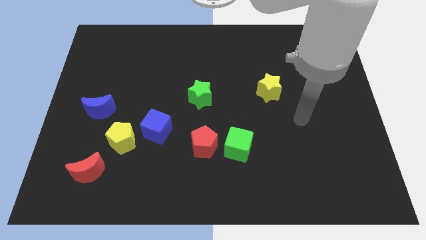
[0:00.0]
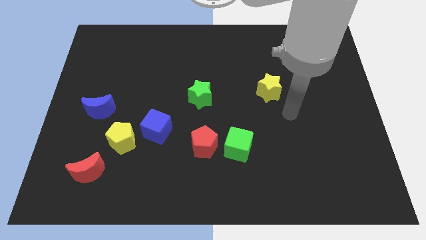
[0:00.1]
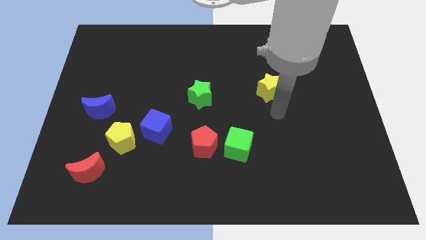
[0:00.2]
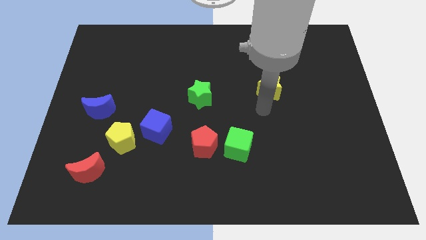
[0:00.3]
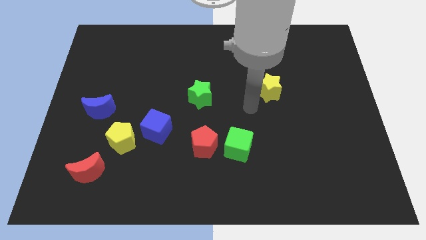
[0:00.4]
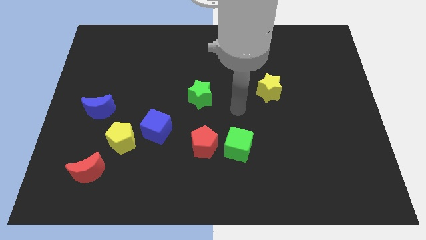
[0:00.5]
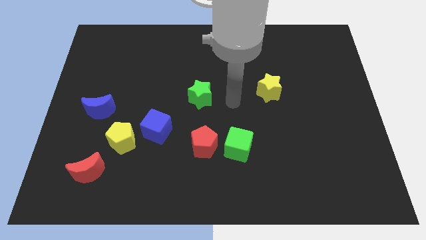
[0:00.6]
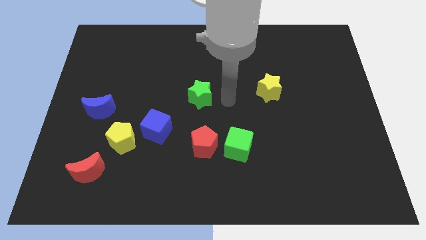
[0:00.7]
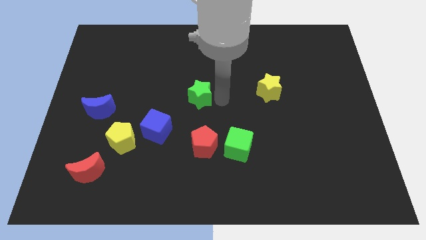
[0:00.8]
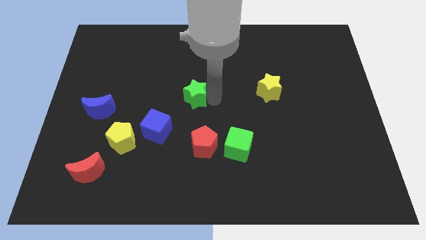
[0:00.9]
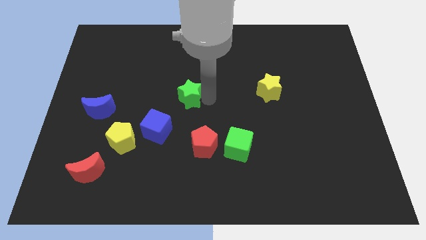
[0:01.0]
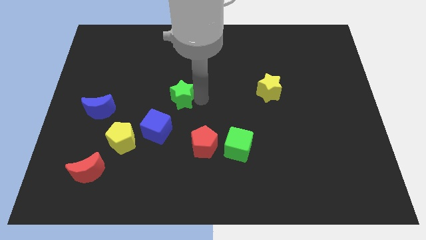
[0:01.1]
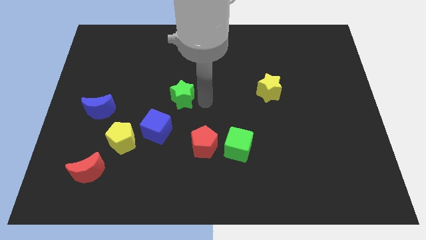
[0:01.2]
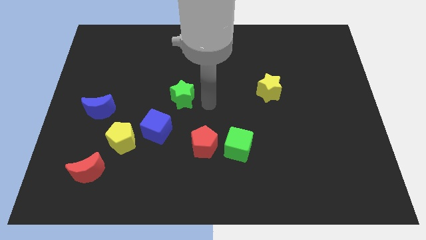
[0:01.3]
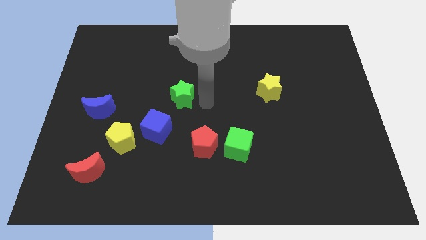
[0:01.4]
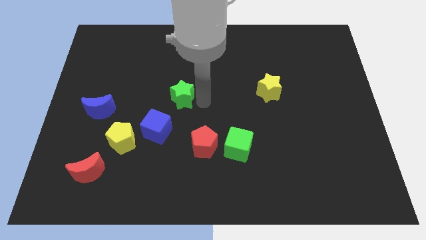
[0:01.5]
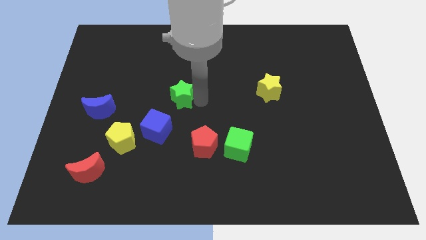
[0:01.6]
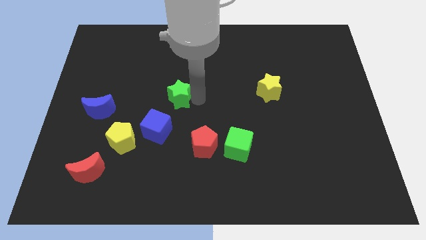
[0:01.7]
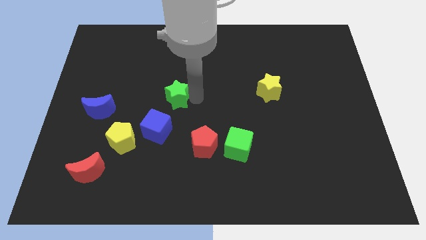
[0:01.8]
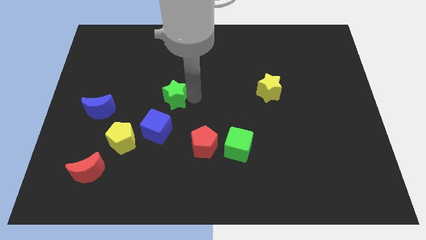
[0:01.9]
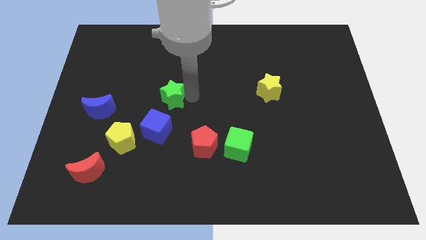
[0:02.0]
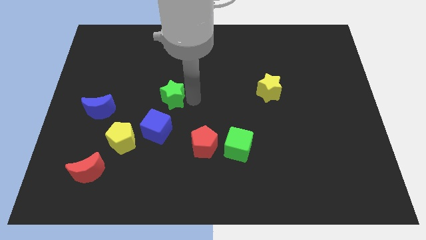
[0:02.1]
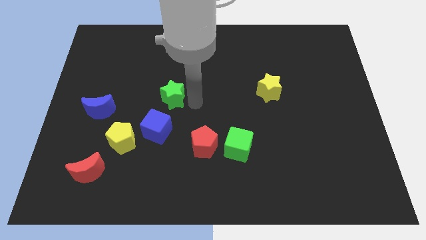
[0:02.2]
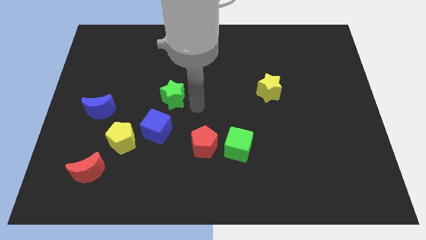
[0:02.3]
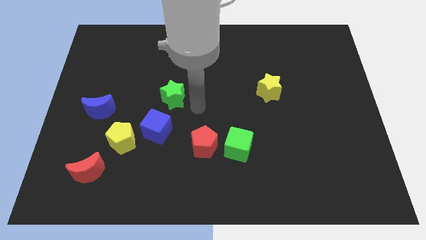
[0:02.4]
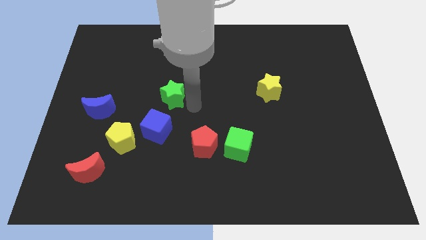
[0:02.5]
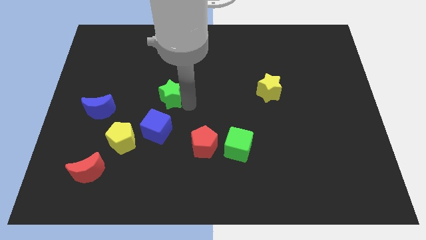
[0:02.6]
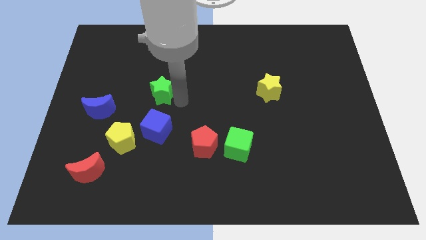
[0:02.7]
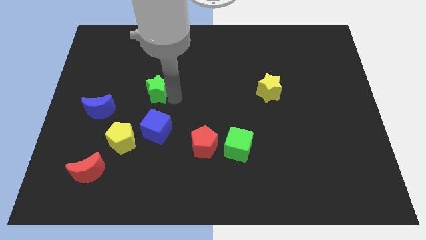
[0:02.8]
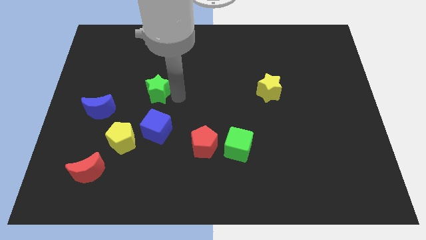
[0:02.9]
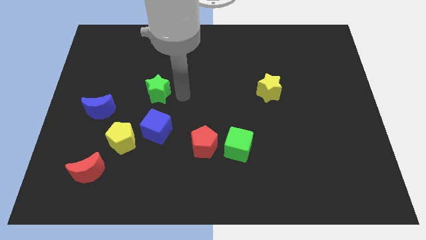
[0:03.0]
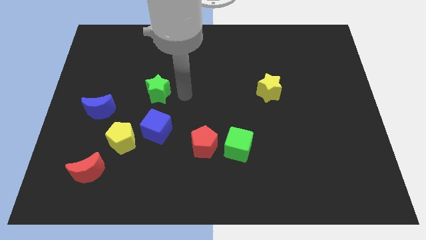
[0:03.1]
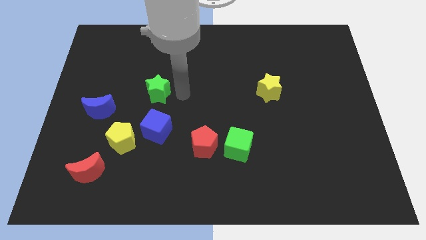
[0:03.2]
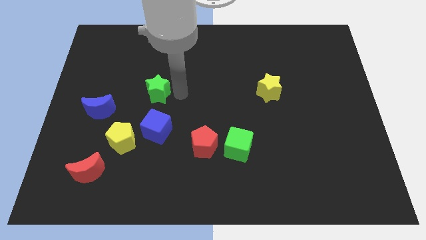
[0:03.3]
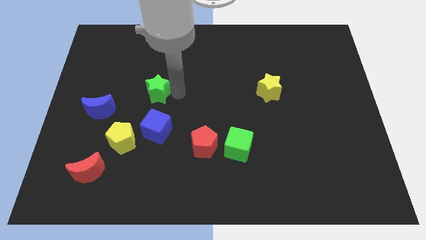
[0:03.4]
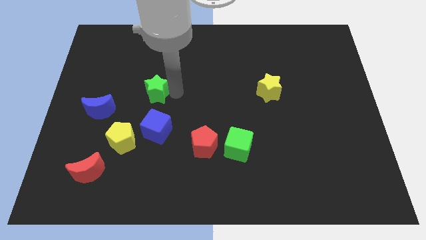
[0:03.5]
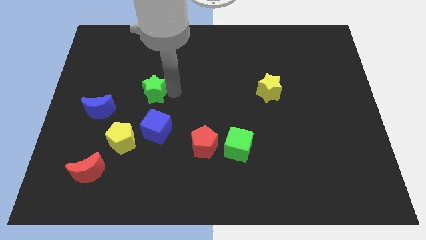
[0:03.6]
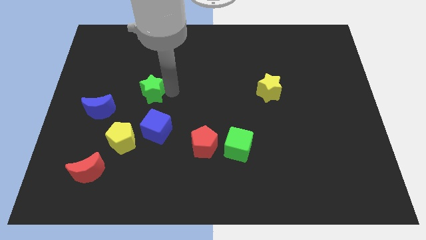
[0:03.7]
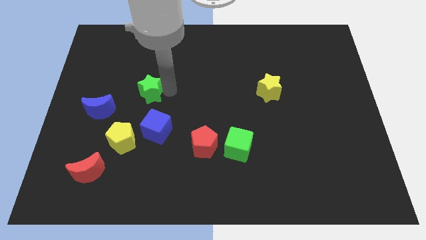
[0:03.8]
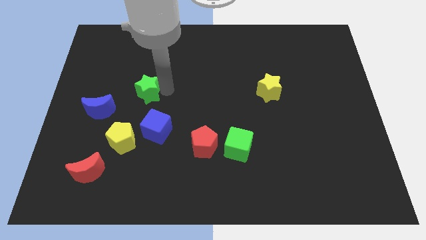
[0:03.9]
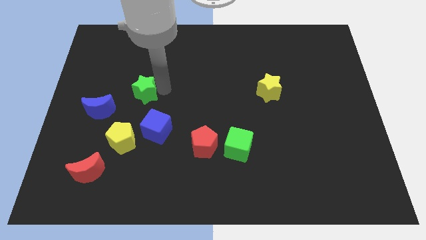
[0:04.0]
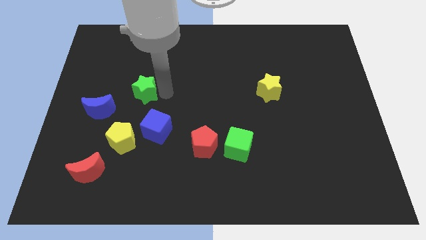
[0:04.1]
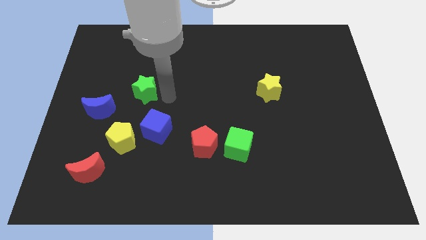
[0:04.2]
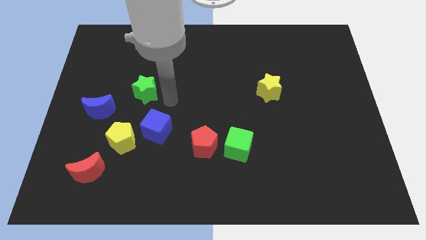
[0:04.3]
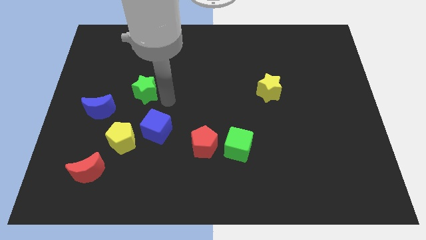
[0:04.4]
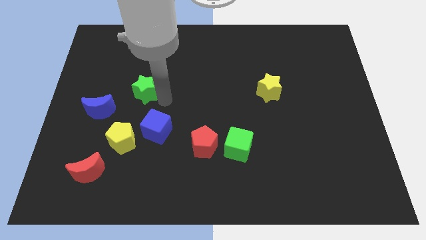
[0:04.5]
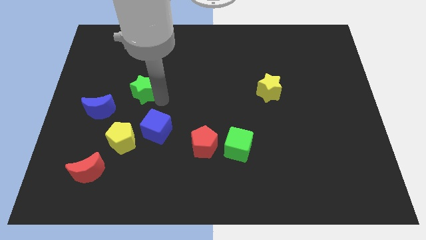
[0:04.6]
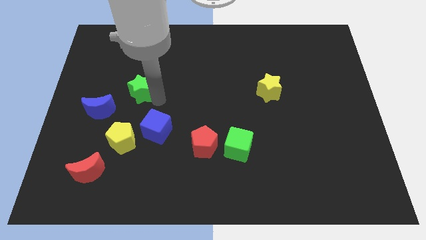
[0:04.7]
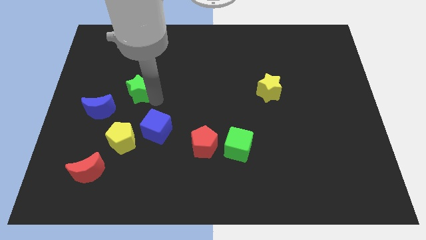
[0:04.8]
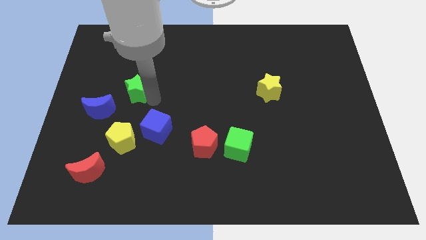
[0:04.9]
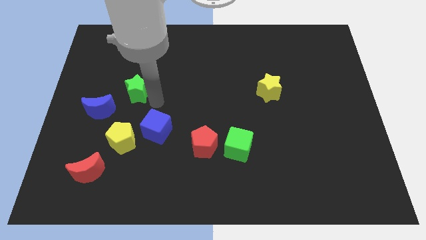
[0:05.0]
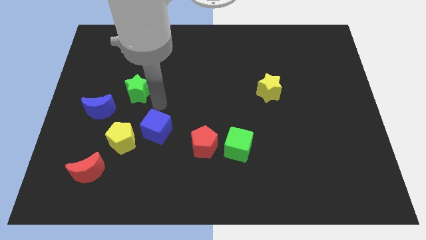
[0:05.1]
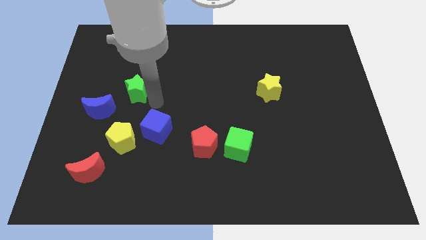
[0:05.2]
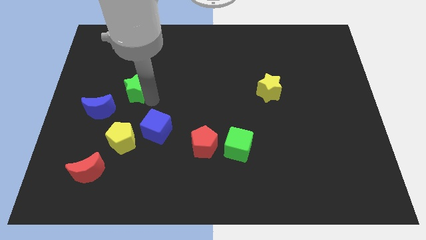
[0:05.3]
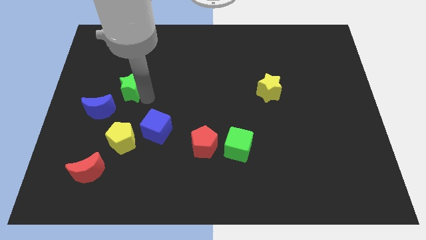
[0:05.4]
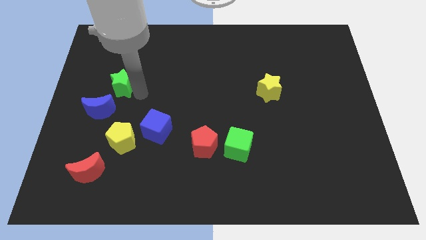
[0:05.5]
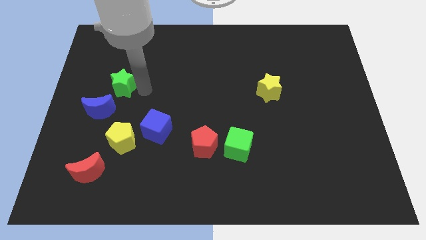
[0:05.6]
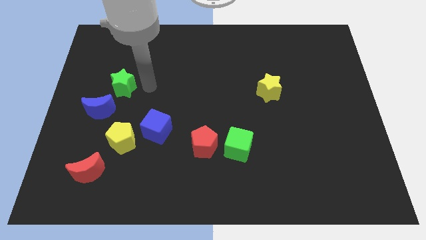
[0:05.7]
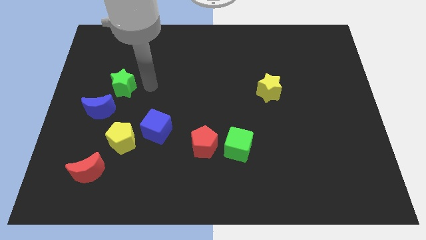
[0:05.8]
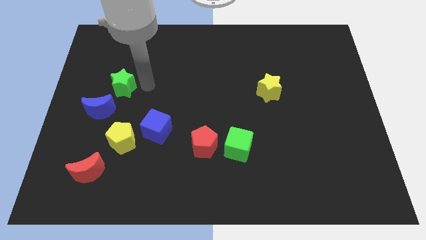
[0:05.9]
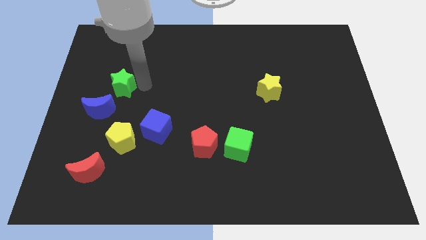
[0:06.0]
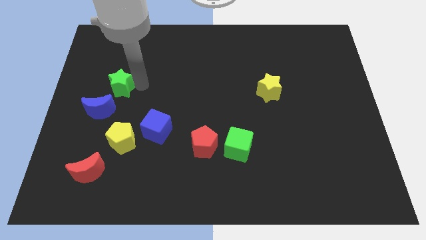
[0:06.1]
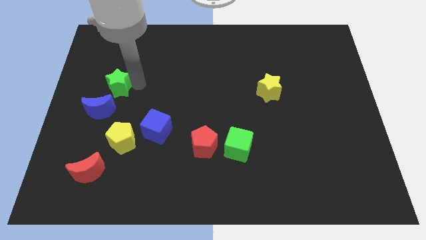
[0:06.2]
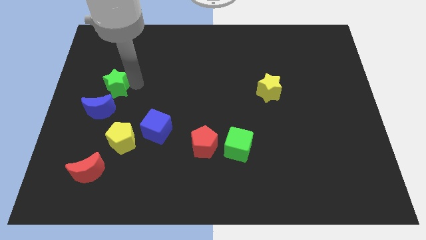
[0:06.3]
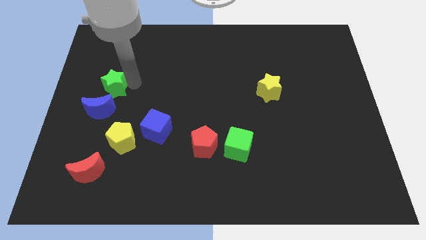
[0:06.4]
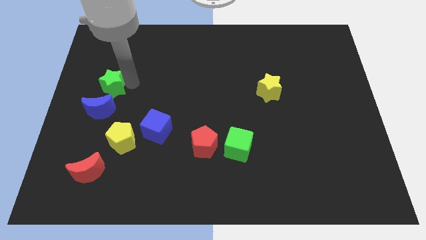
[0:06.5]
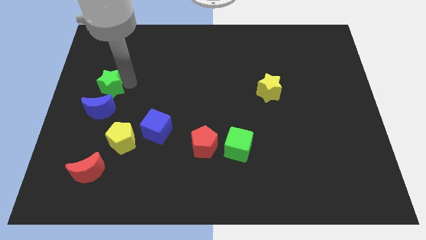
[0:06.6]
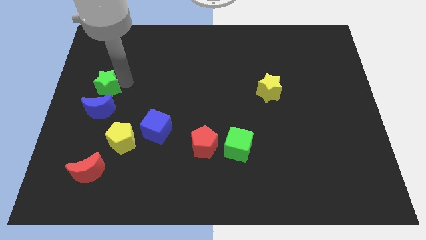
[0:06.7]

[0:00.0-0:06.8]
put the green star to the center left

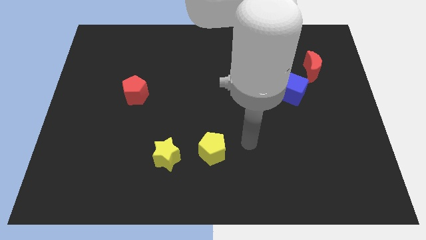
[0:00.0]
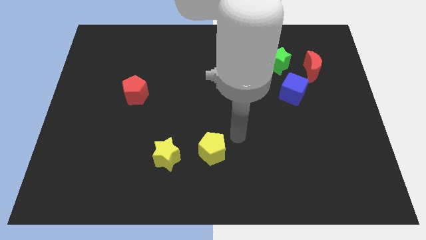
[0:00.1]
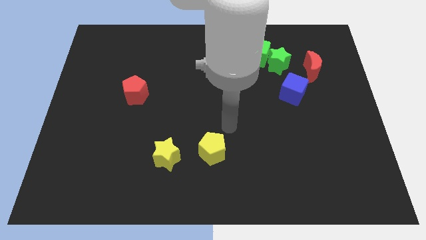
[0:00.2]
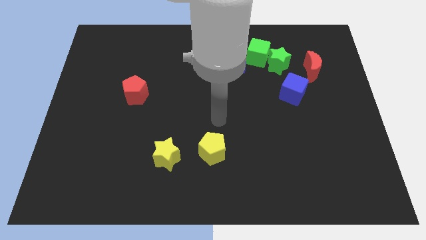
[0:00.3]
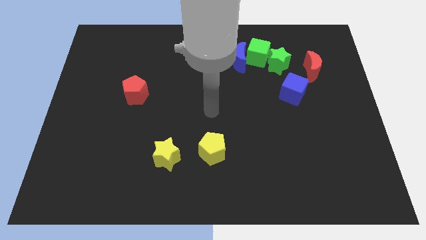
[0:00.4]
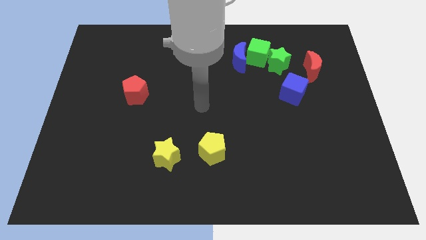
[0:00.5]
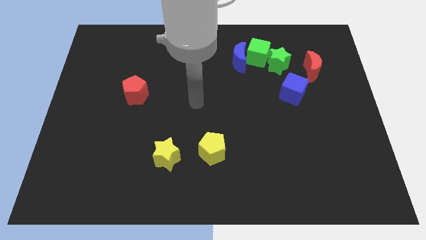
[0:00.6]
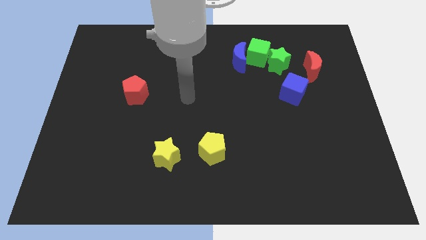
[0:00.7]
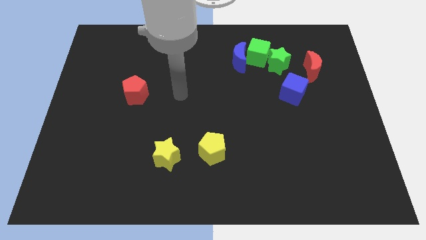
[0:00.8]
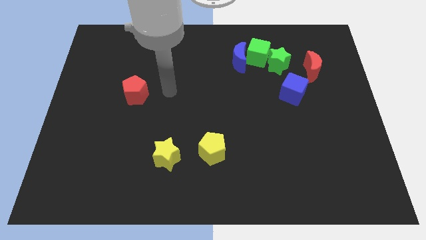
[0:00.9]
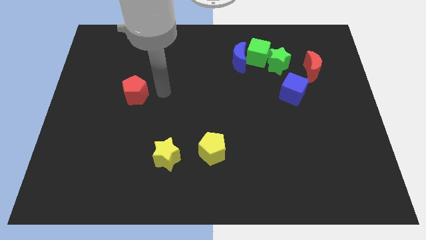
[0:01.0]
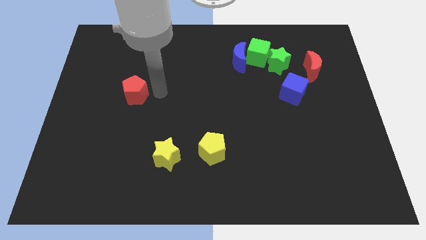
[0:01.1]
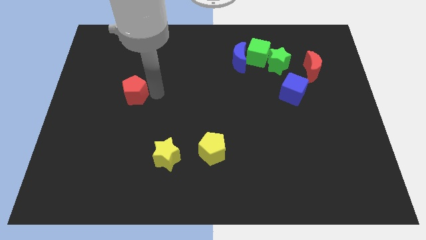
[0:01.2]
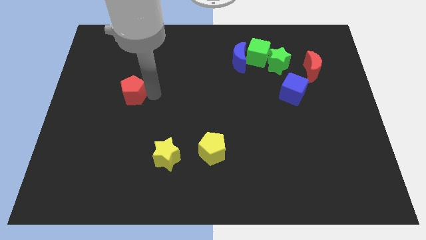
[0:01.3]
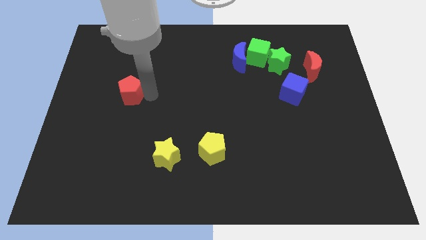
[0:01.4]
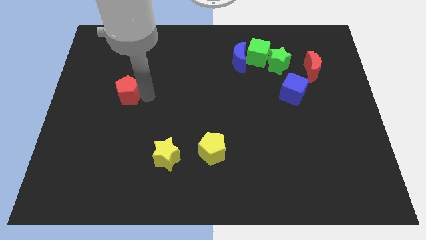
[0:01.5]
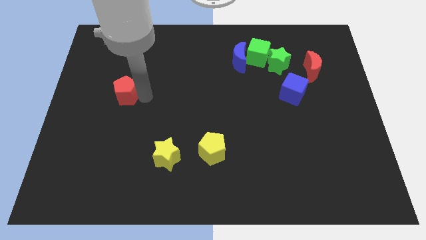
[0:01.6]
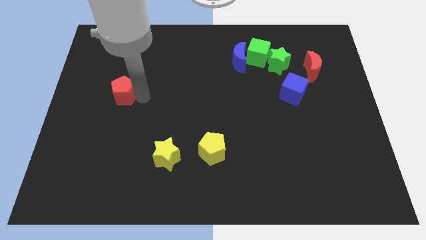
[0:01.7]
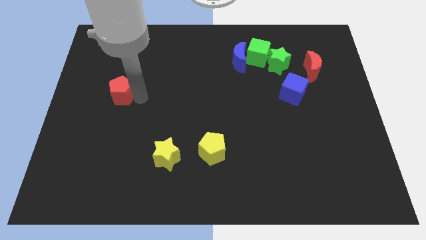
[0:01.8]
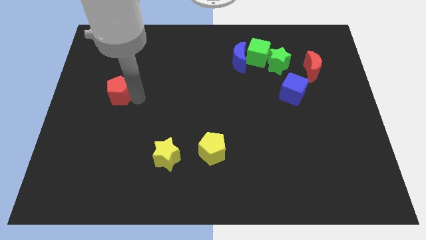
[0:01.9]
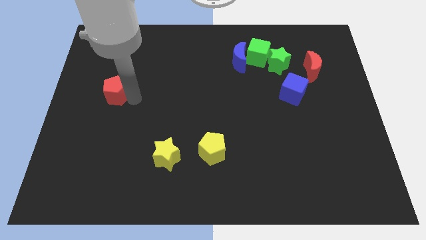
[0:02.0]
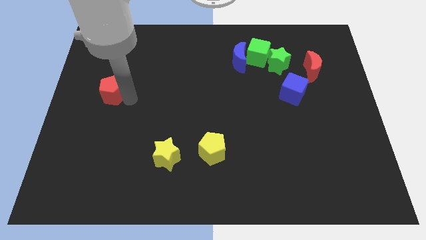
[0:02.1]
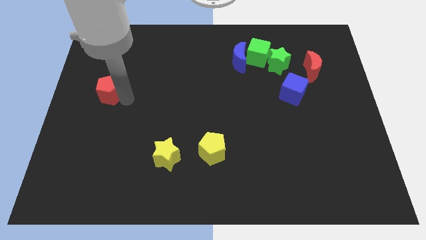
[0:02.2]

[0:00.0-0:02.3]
slide the red pentagon to the center left
